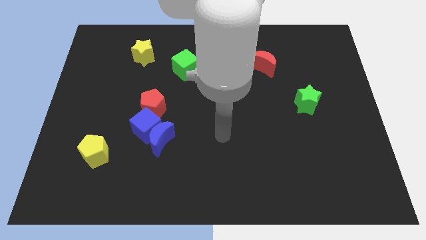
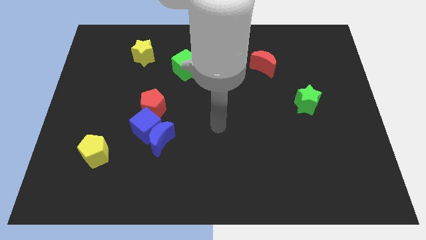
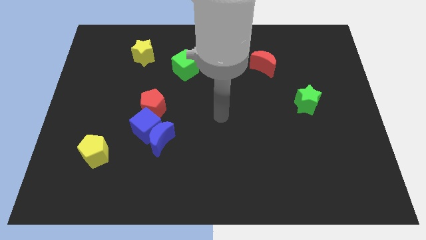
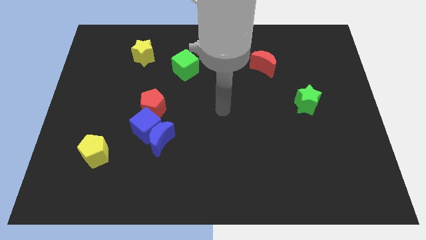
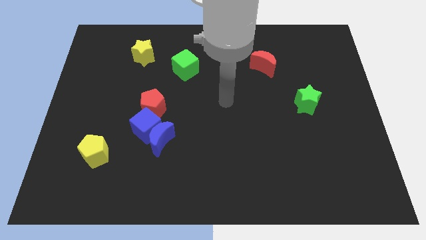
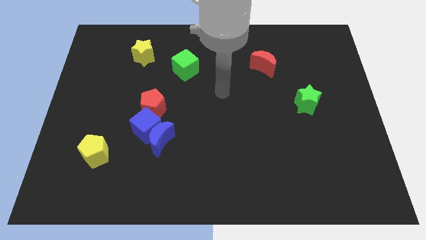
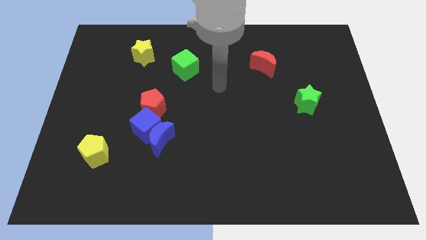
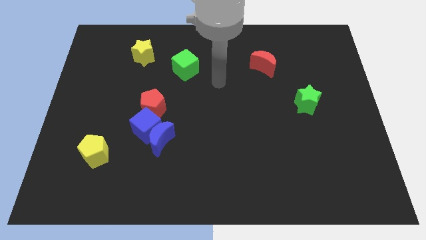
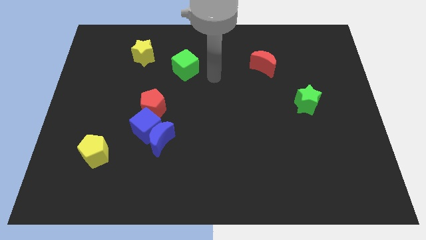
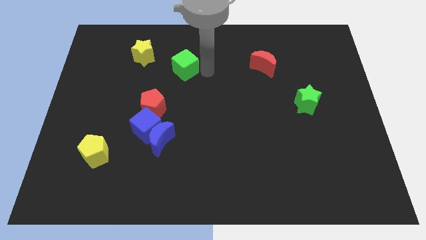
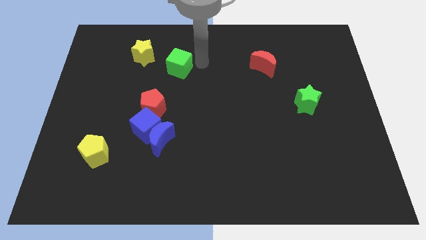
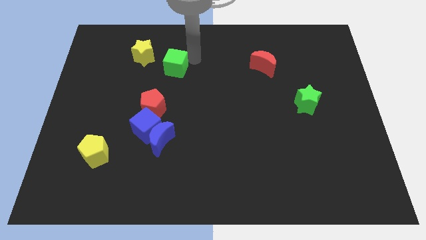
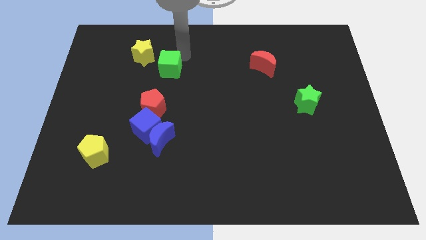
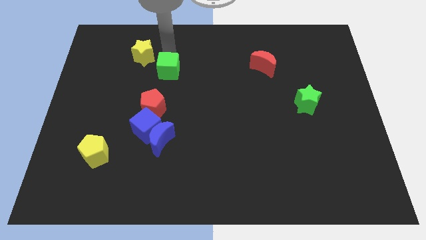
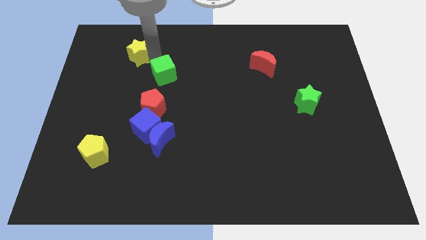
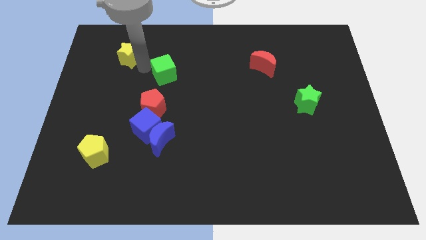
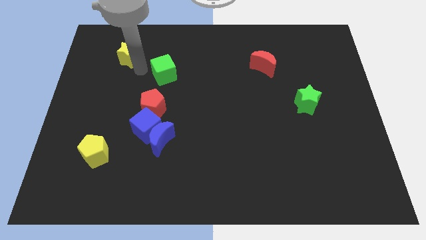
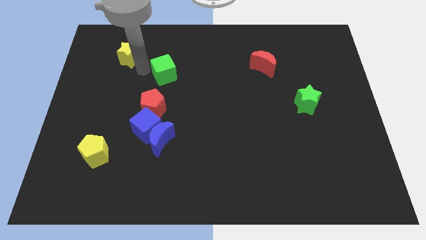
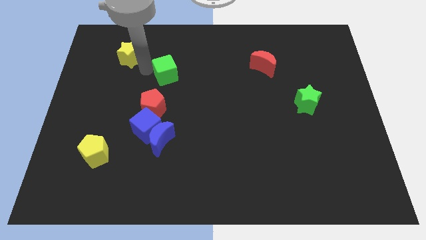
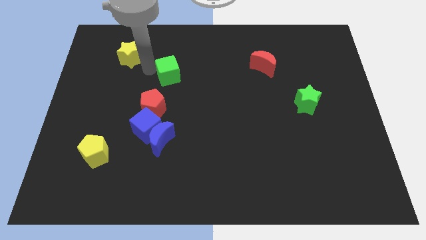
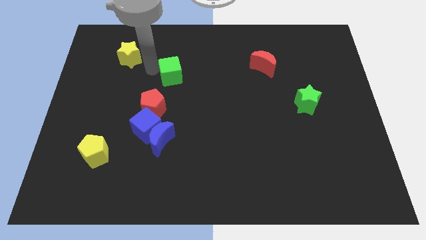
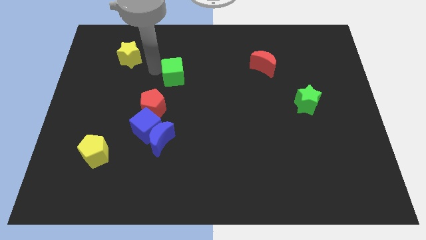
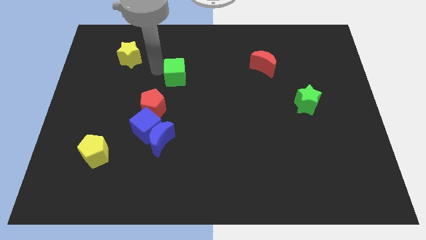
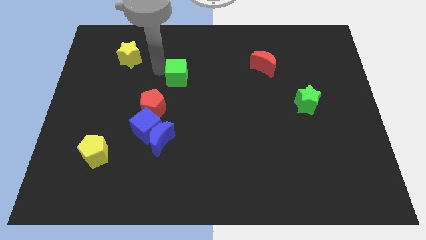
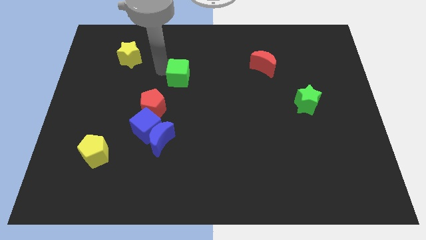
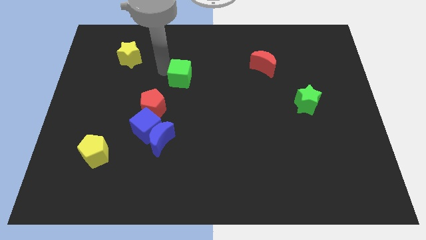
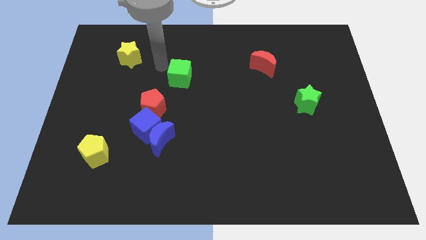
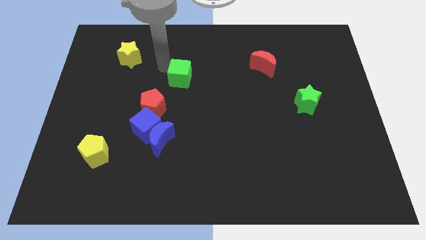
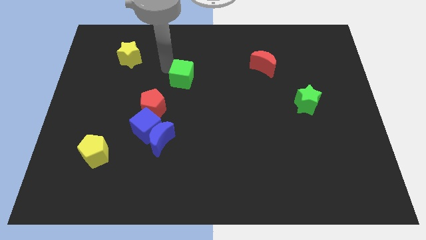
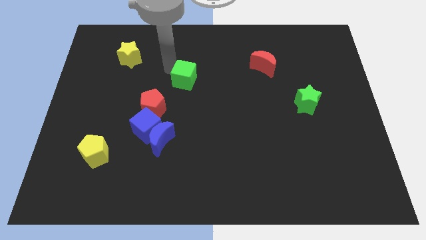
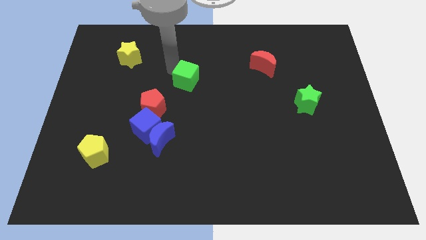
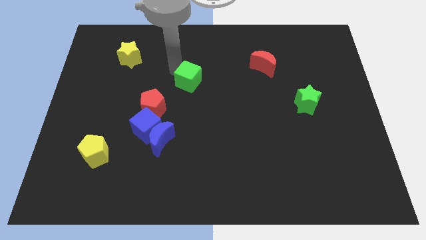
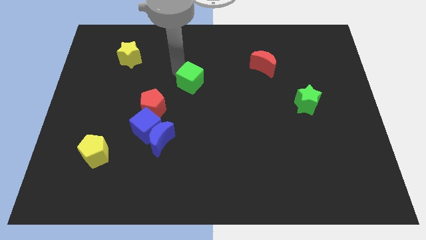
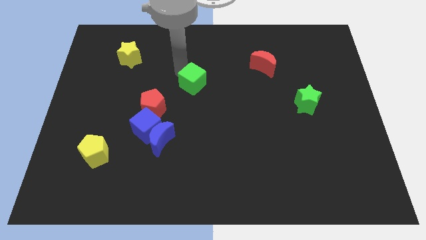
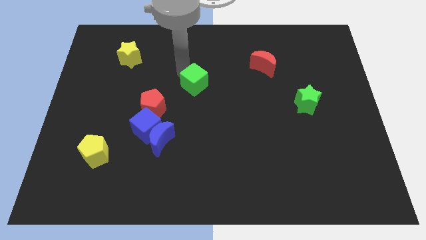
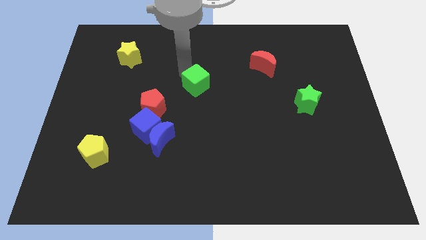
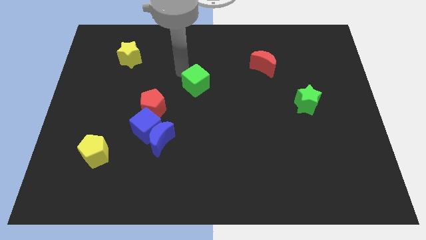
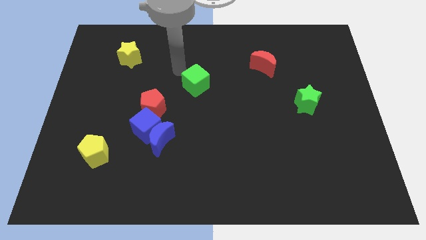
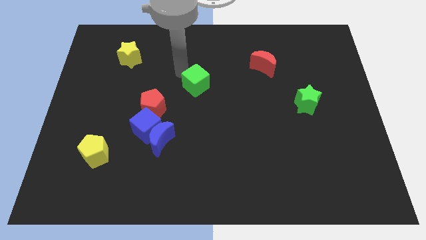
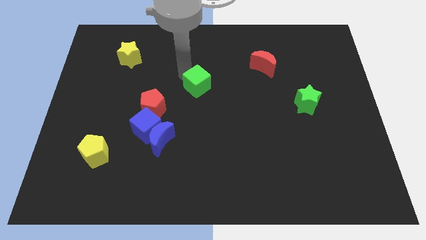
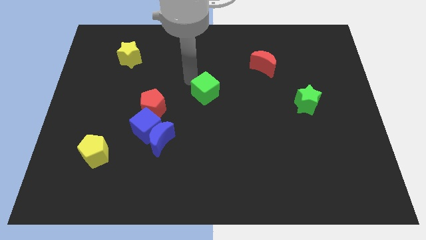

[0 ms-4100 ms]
slide the green cube diagonally downwards and to the right somewhat

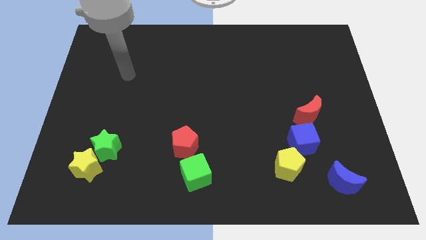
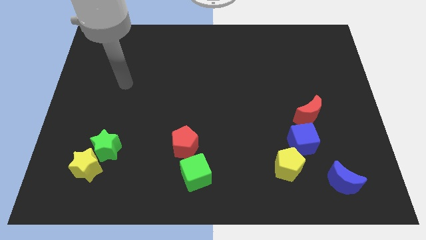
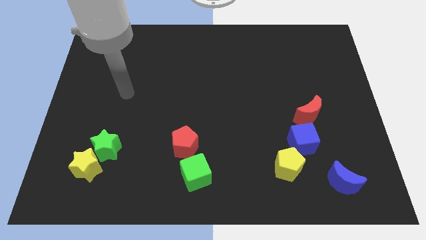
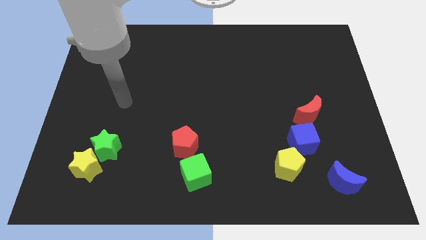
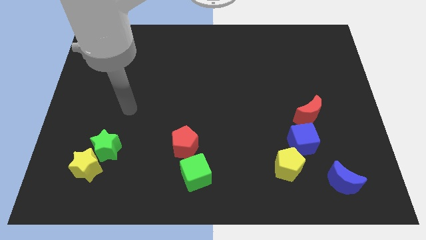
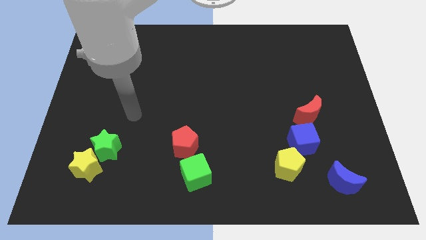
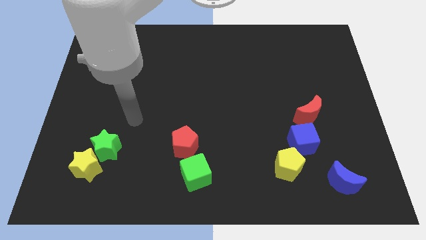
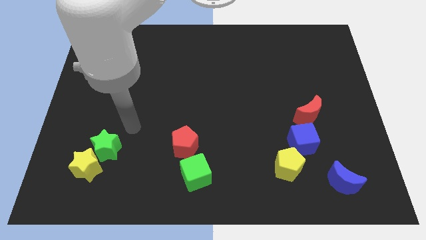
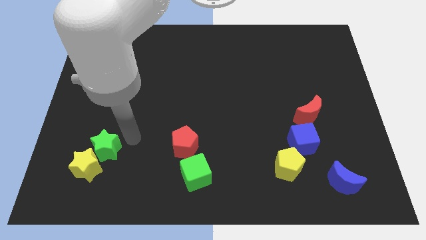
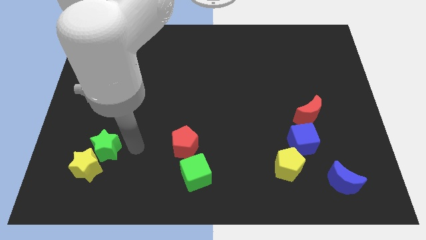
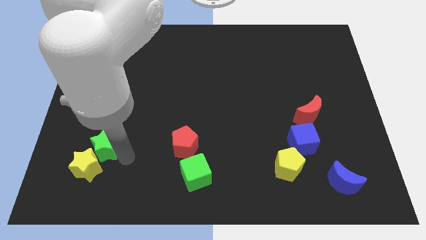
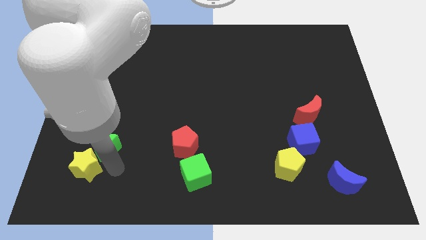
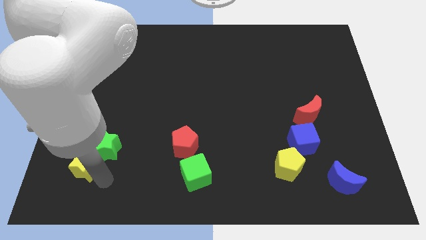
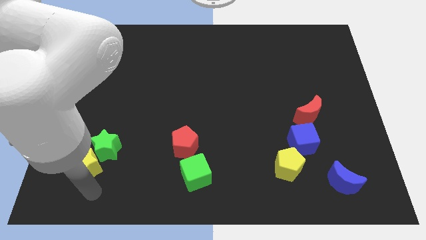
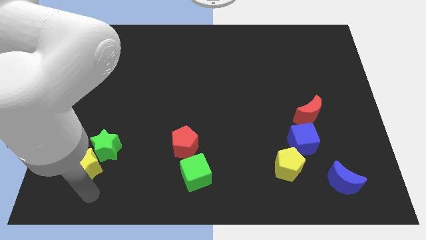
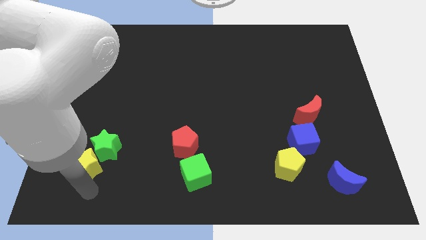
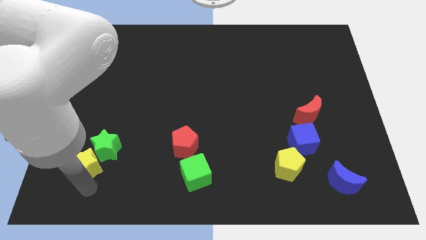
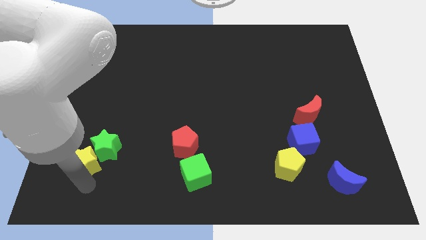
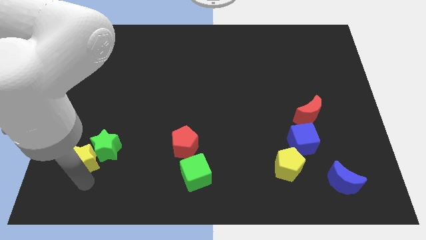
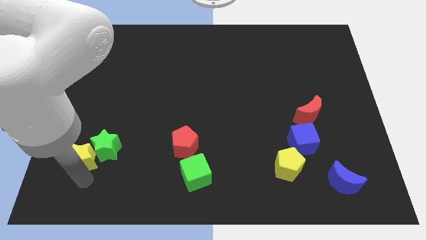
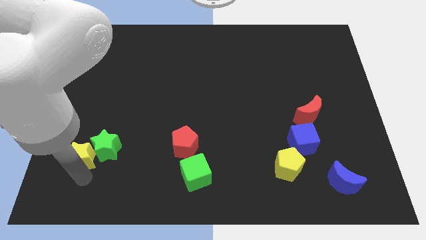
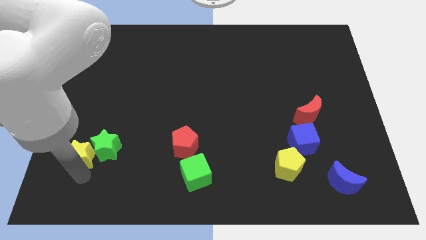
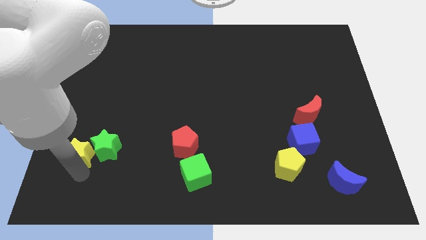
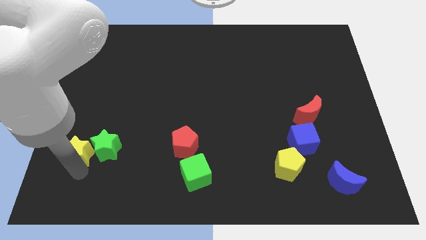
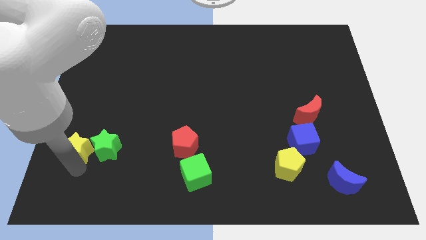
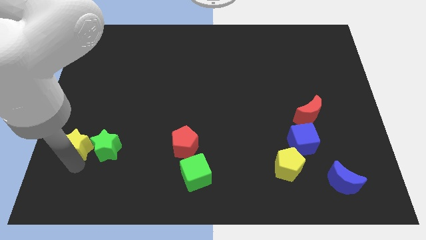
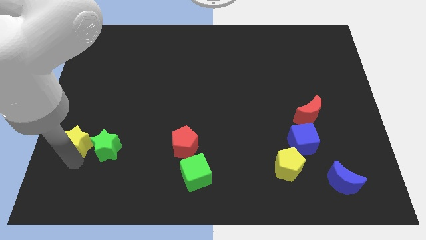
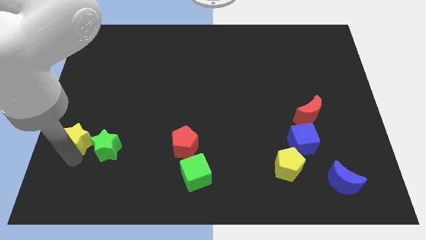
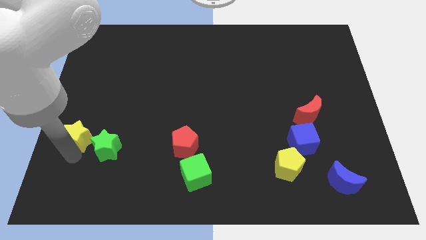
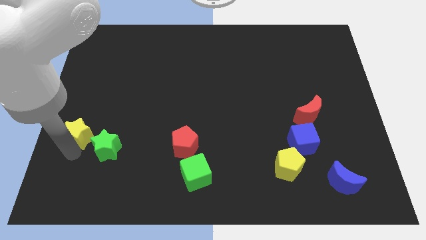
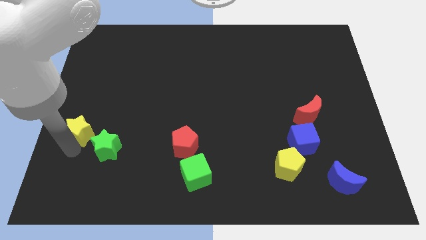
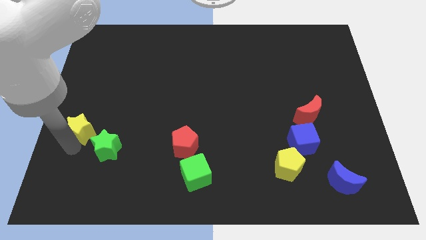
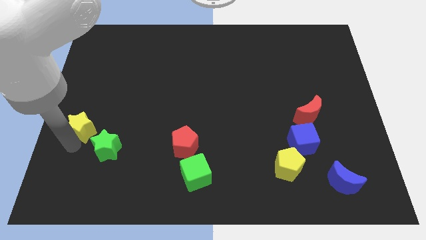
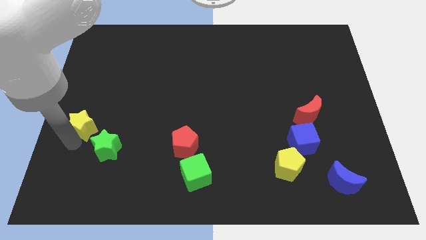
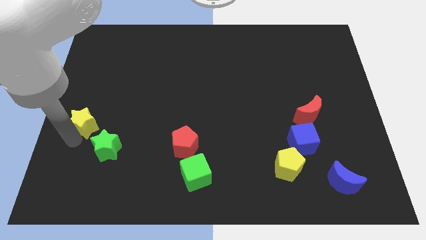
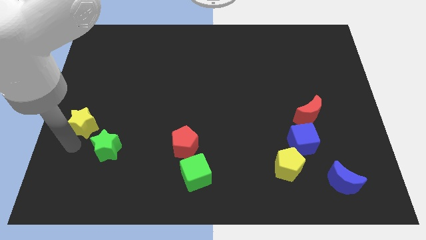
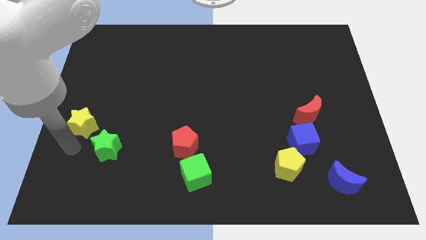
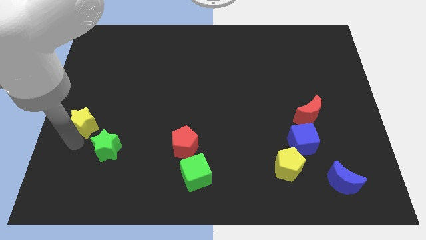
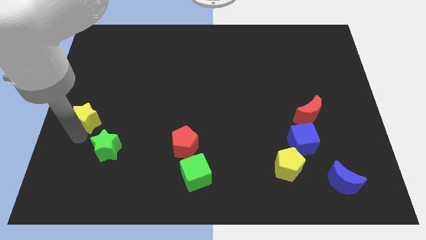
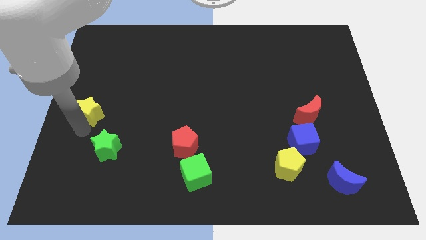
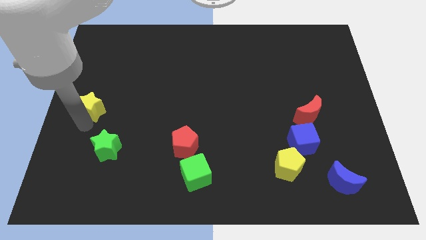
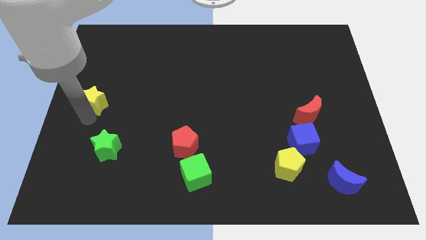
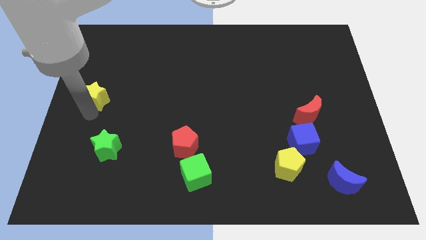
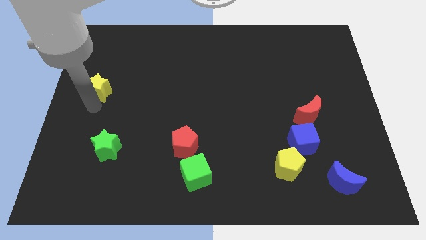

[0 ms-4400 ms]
push the yellow star up
